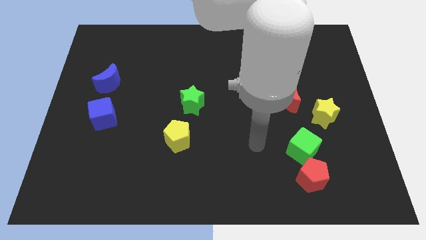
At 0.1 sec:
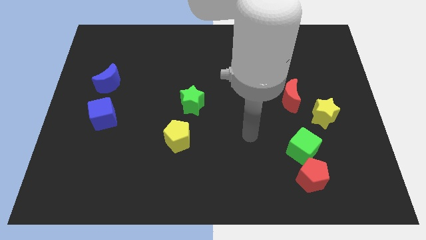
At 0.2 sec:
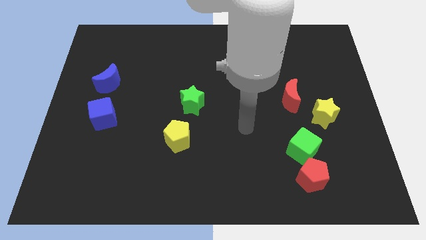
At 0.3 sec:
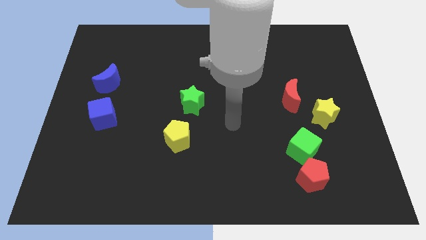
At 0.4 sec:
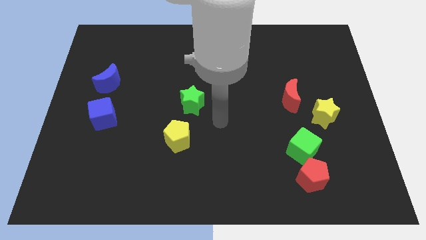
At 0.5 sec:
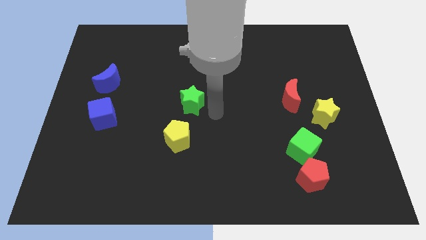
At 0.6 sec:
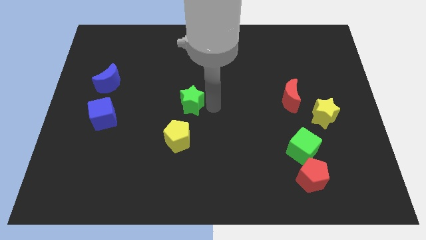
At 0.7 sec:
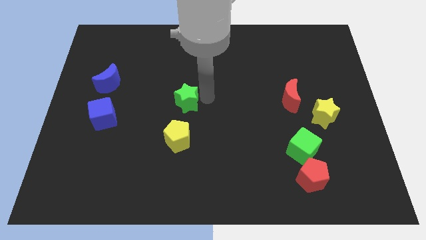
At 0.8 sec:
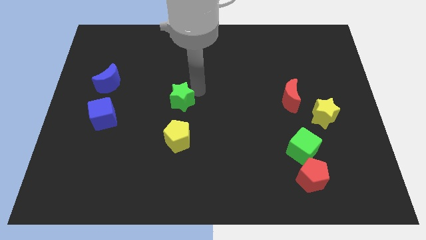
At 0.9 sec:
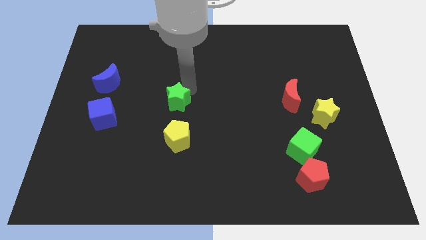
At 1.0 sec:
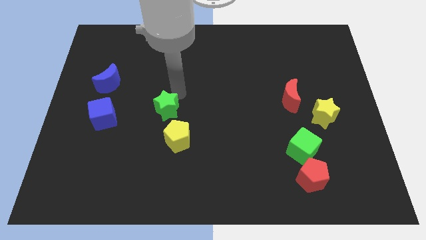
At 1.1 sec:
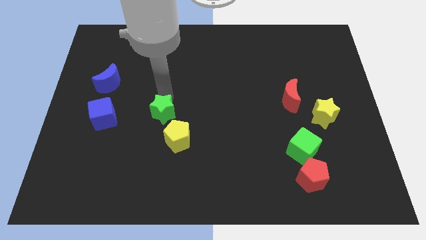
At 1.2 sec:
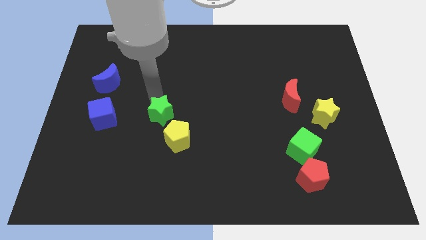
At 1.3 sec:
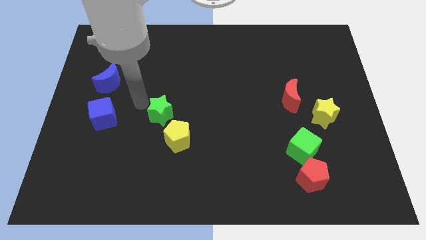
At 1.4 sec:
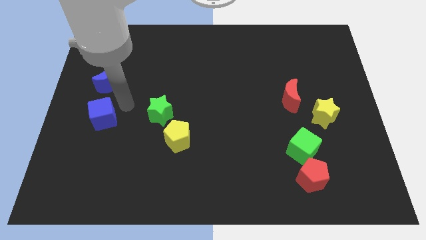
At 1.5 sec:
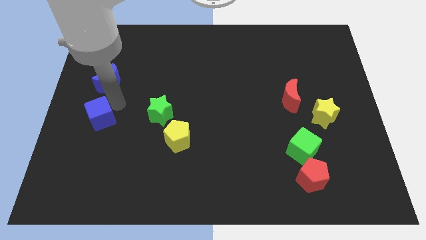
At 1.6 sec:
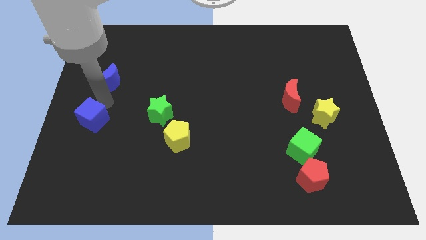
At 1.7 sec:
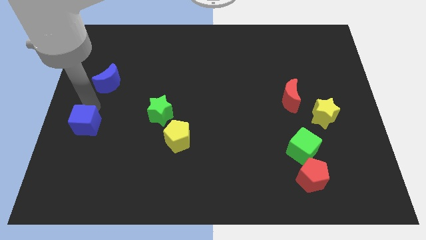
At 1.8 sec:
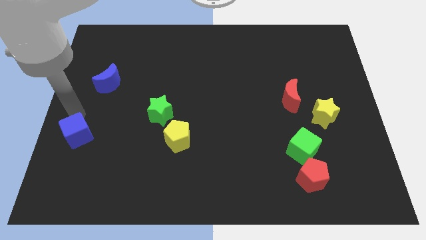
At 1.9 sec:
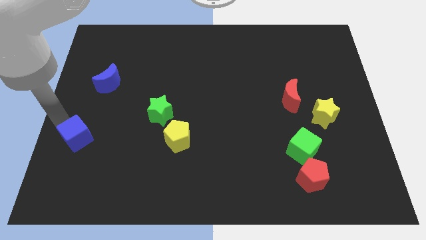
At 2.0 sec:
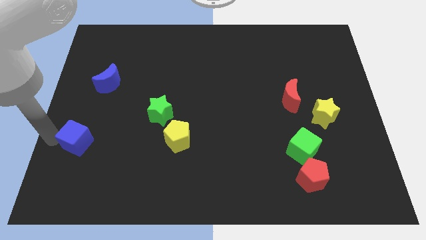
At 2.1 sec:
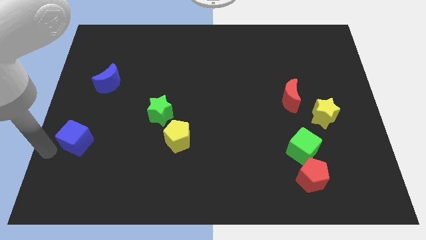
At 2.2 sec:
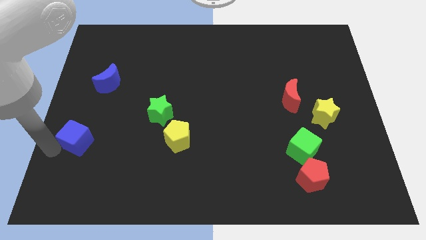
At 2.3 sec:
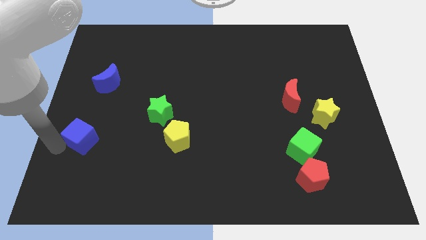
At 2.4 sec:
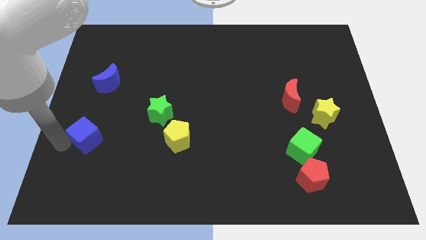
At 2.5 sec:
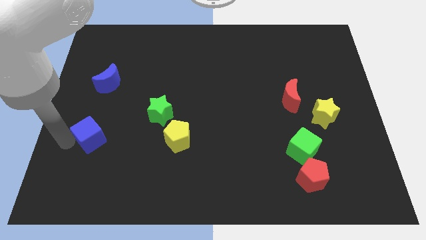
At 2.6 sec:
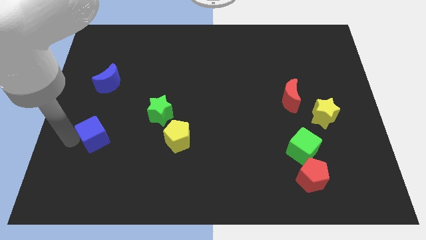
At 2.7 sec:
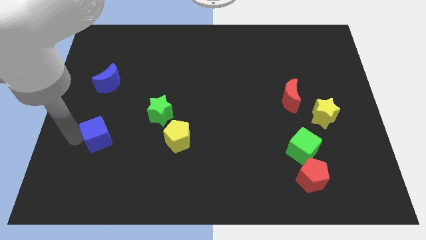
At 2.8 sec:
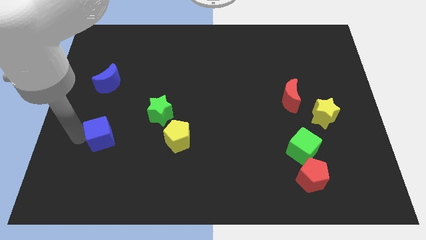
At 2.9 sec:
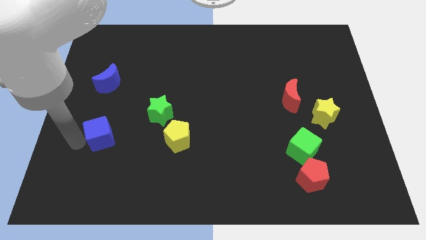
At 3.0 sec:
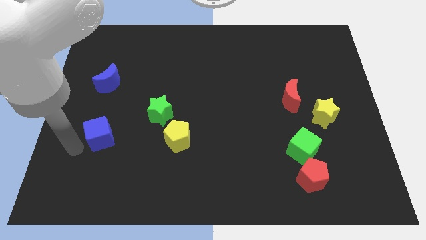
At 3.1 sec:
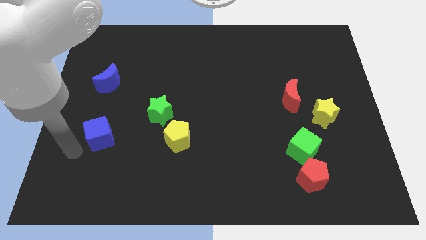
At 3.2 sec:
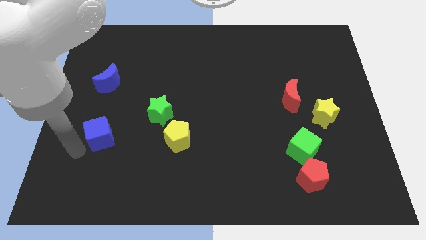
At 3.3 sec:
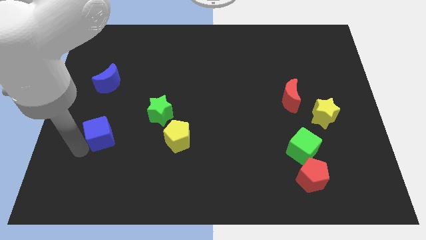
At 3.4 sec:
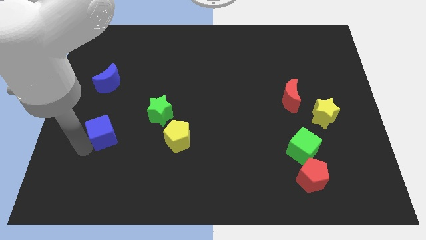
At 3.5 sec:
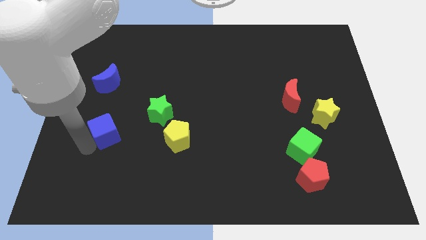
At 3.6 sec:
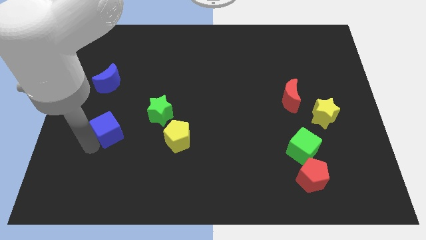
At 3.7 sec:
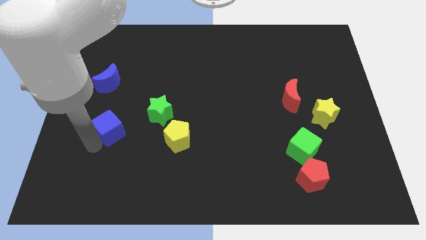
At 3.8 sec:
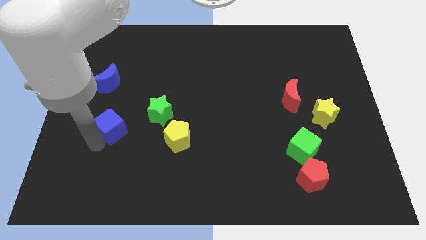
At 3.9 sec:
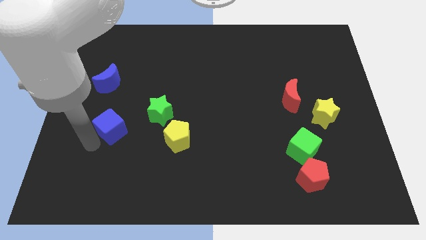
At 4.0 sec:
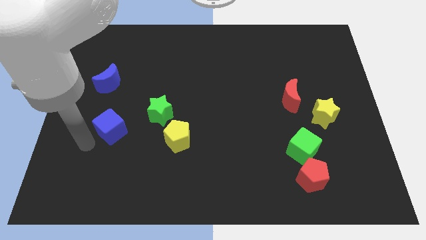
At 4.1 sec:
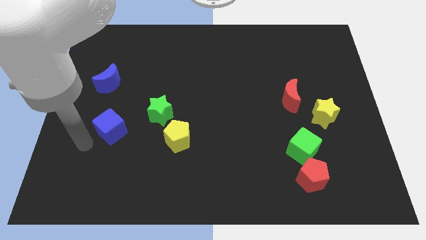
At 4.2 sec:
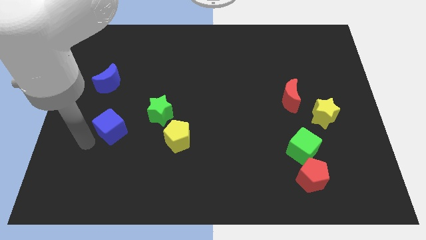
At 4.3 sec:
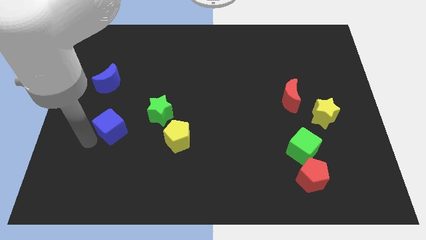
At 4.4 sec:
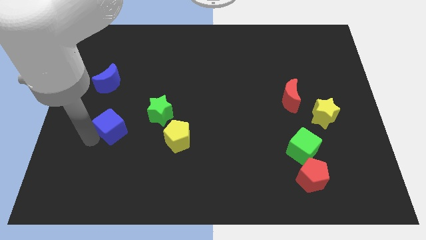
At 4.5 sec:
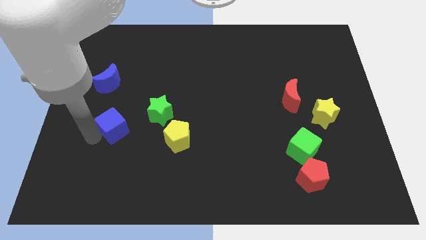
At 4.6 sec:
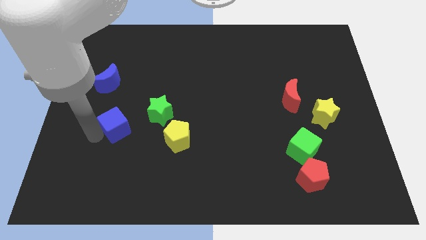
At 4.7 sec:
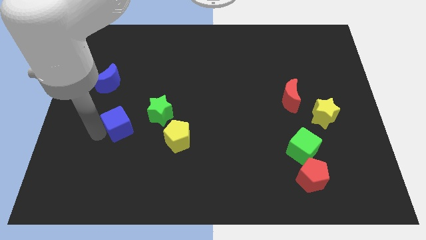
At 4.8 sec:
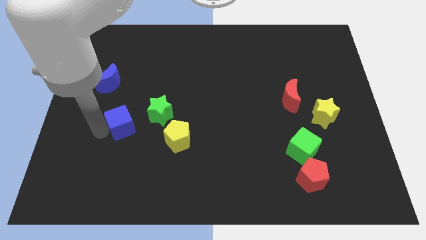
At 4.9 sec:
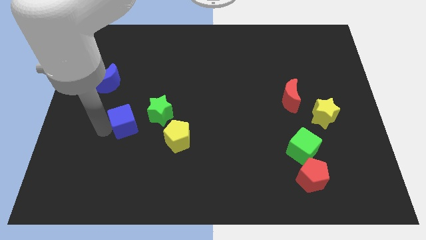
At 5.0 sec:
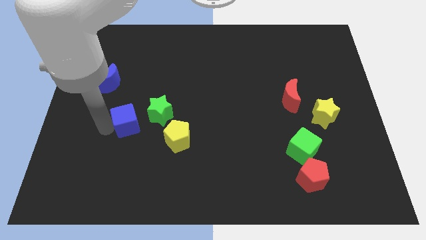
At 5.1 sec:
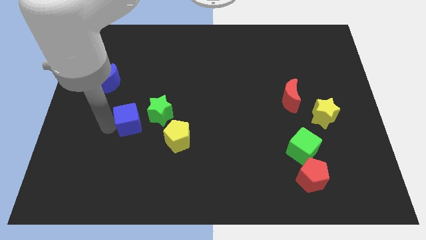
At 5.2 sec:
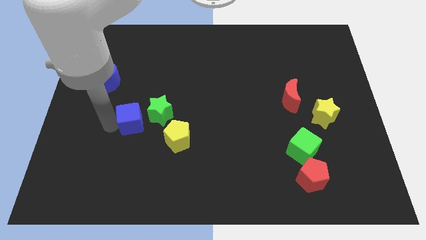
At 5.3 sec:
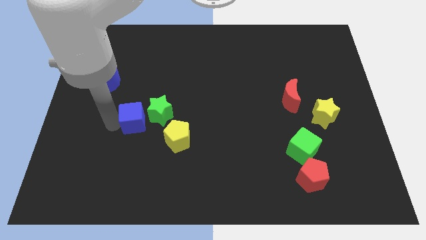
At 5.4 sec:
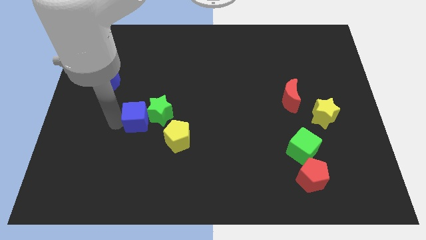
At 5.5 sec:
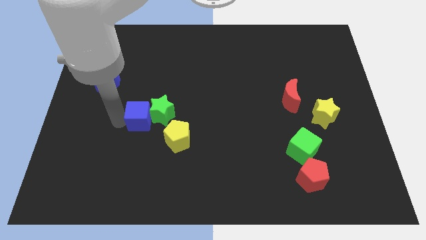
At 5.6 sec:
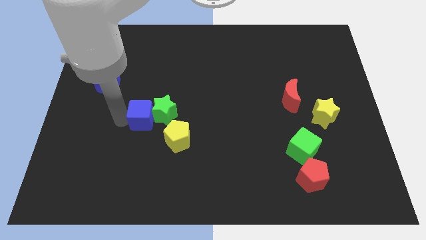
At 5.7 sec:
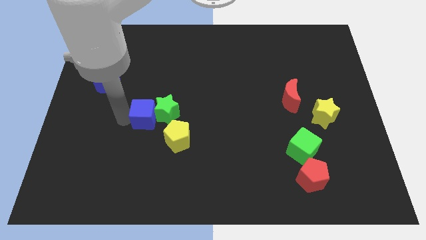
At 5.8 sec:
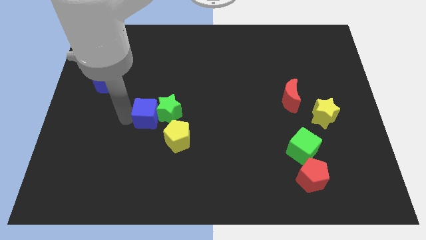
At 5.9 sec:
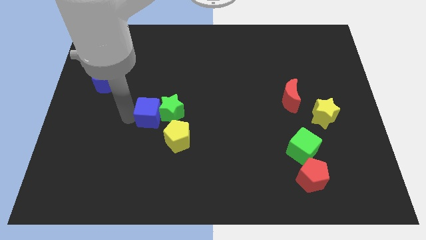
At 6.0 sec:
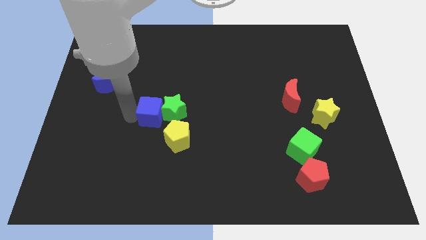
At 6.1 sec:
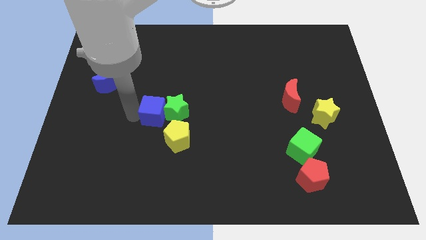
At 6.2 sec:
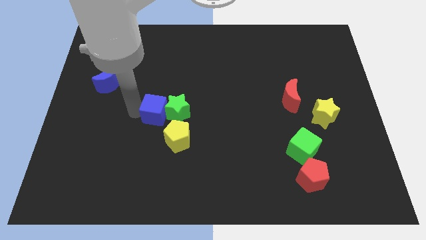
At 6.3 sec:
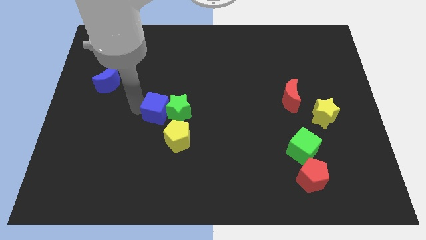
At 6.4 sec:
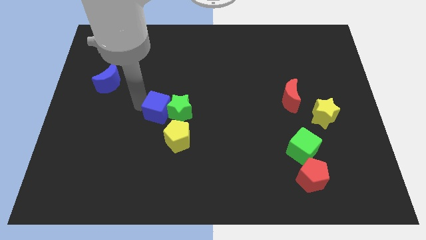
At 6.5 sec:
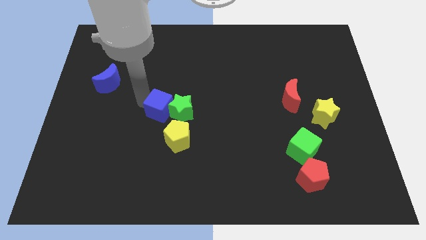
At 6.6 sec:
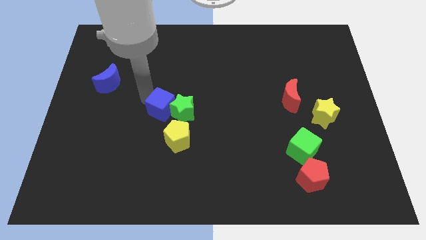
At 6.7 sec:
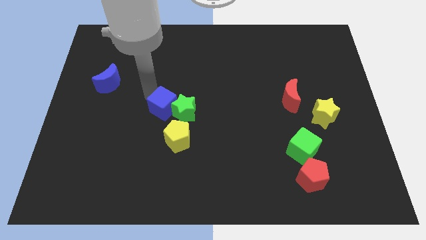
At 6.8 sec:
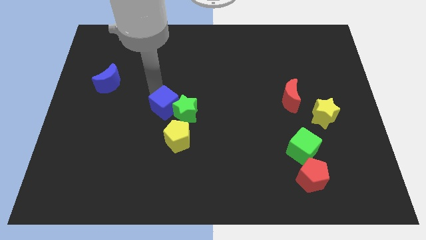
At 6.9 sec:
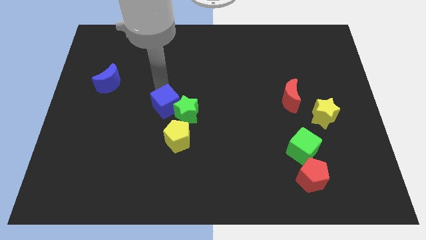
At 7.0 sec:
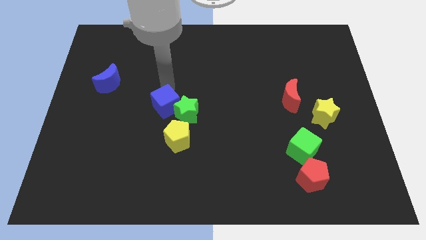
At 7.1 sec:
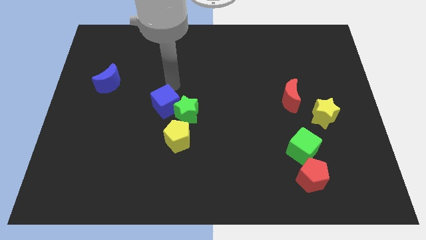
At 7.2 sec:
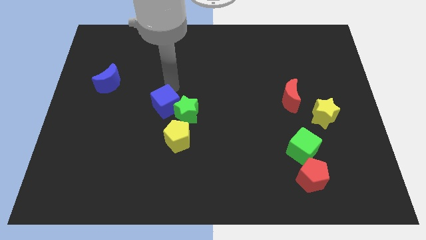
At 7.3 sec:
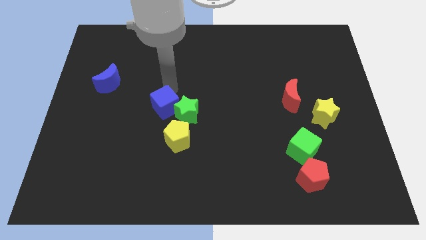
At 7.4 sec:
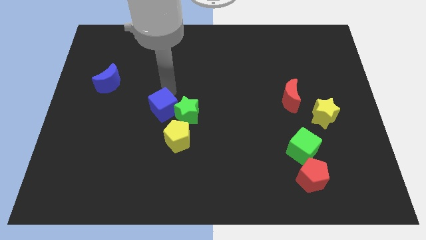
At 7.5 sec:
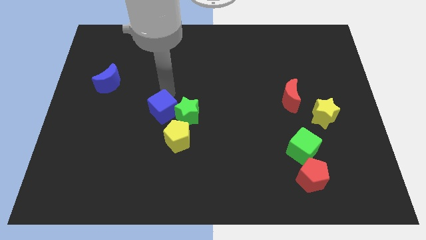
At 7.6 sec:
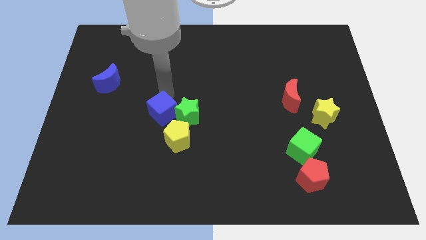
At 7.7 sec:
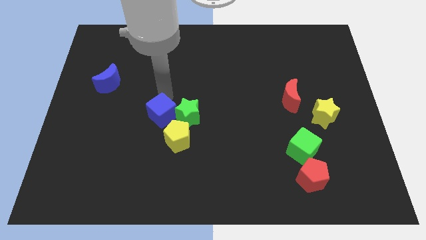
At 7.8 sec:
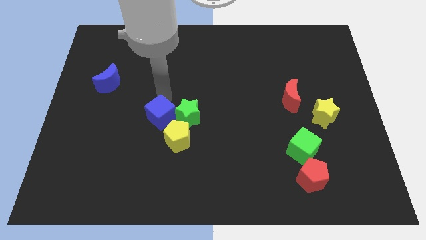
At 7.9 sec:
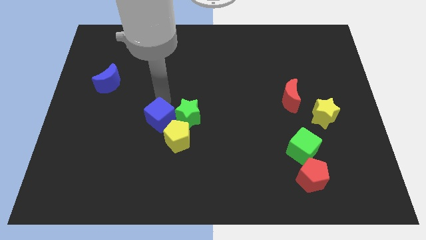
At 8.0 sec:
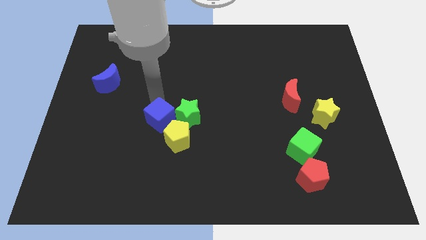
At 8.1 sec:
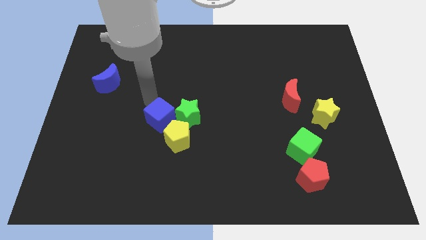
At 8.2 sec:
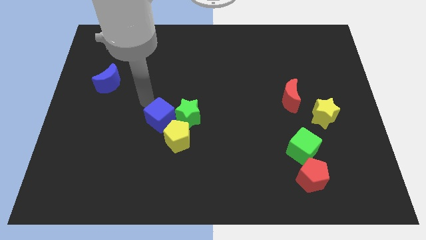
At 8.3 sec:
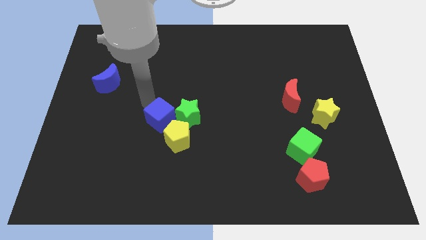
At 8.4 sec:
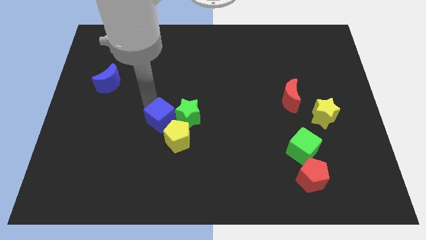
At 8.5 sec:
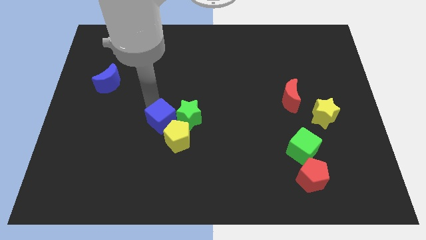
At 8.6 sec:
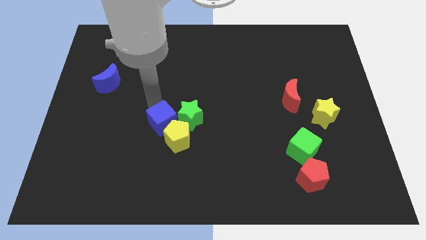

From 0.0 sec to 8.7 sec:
put the blue cube next to the yellow pentagon
